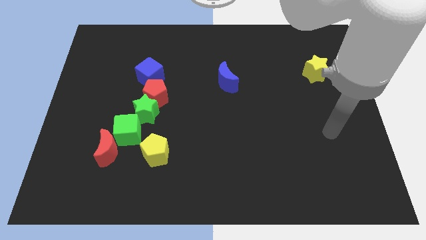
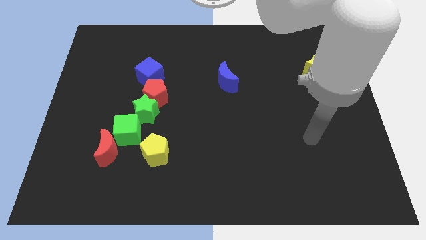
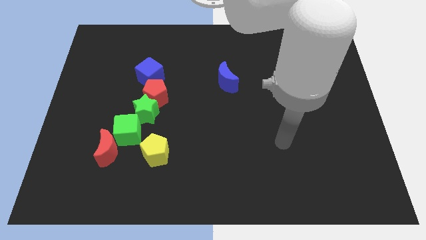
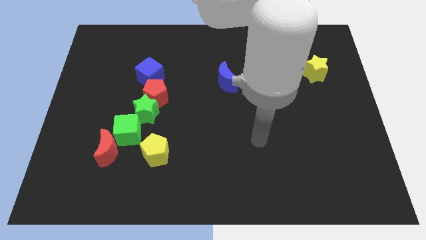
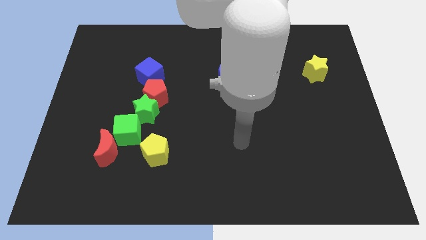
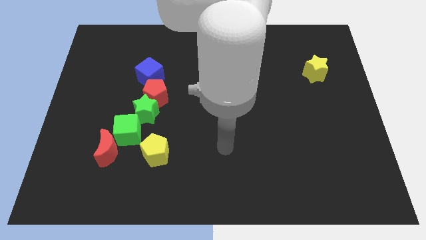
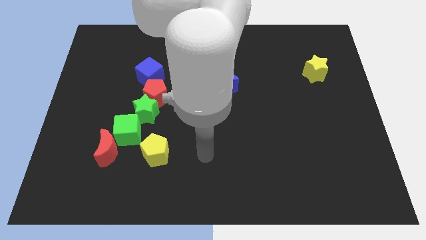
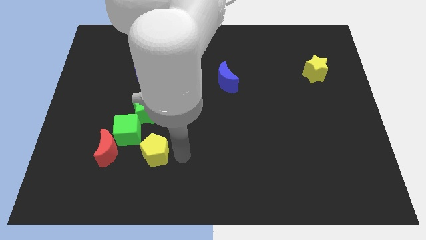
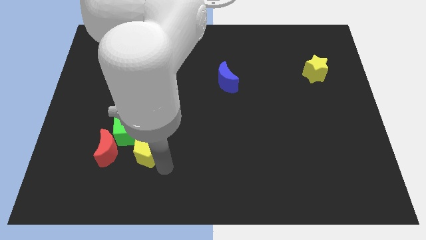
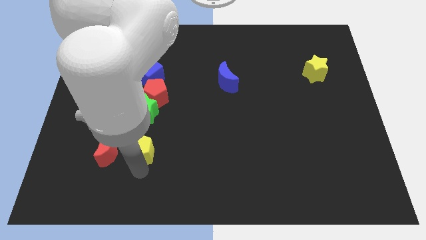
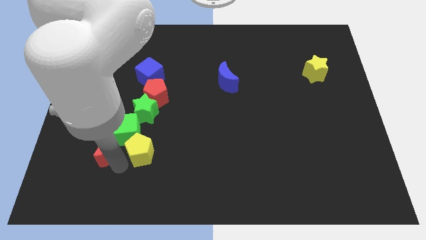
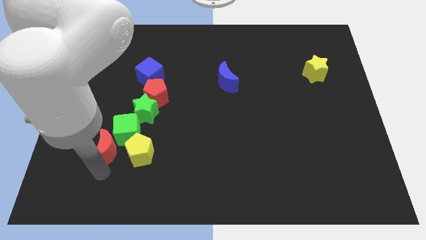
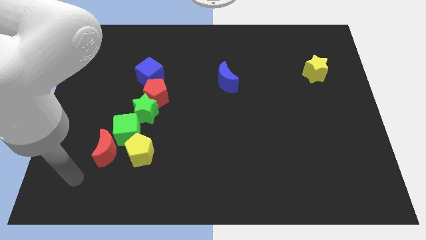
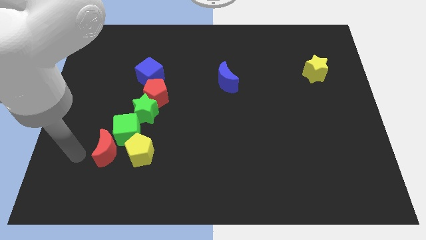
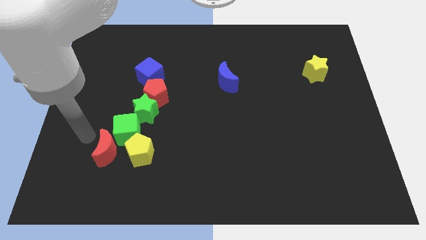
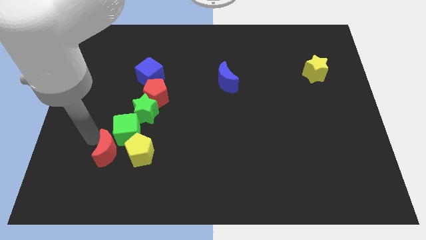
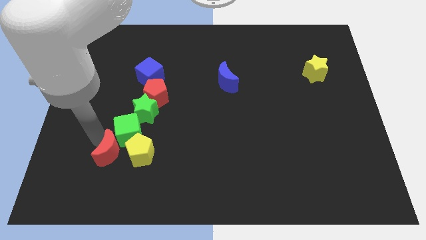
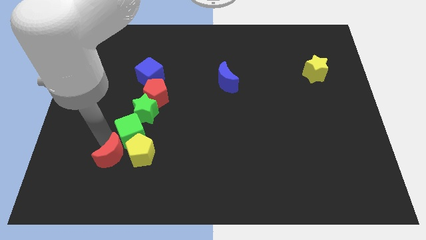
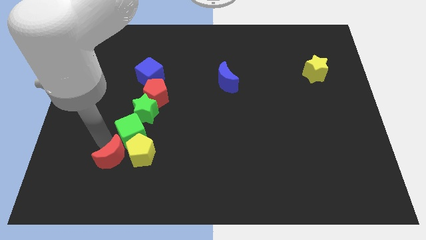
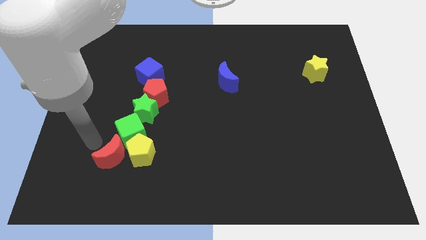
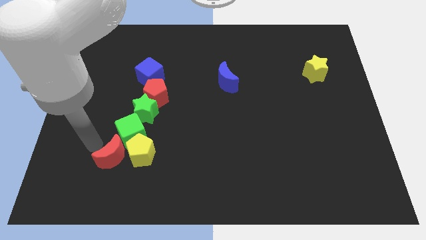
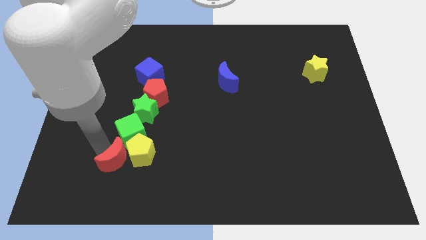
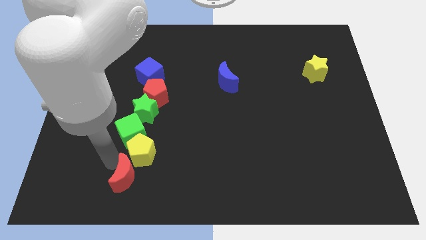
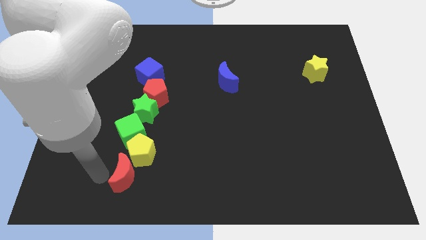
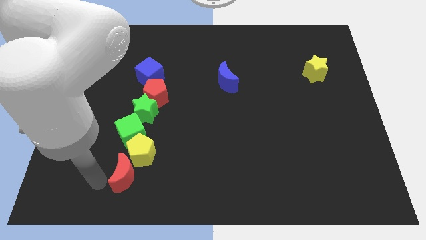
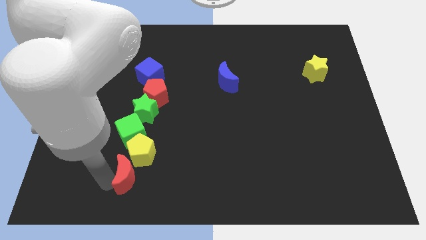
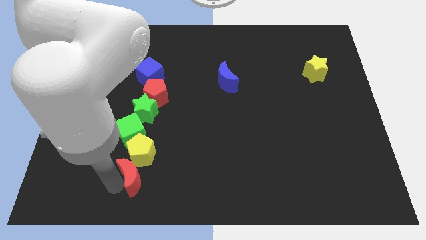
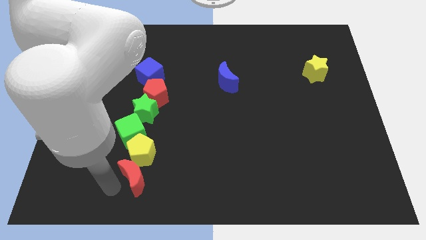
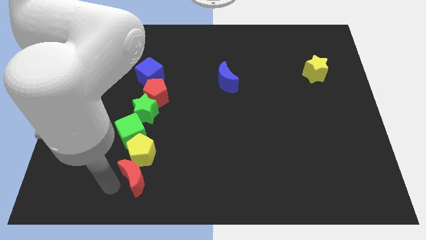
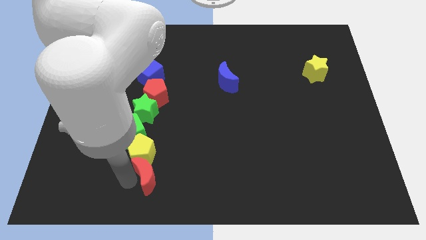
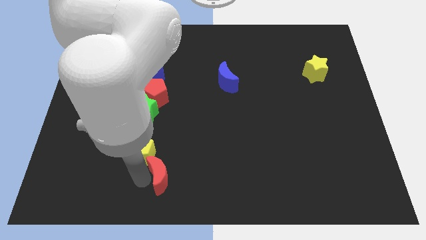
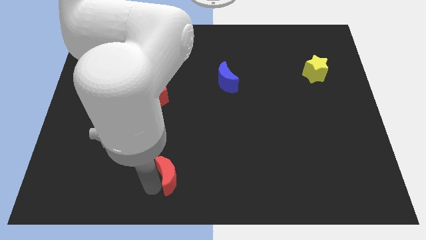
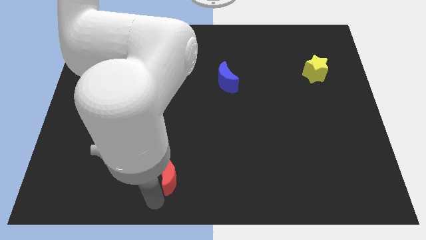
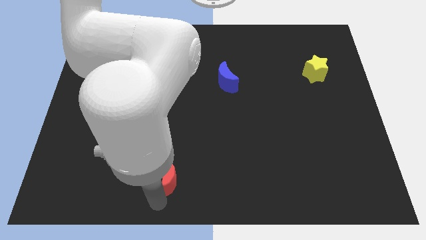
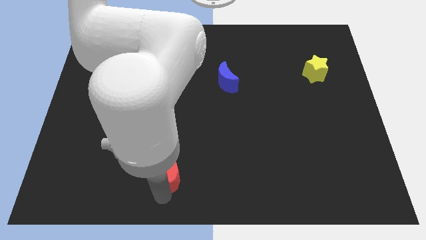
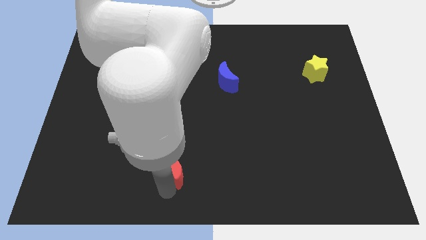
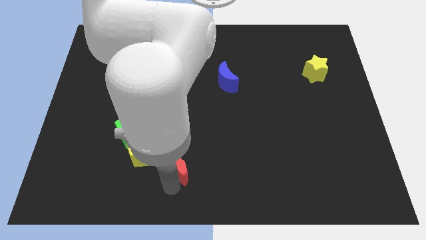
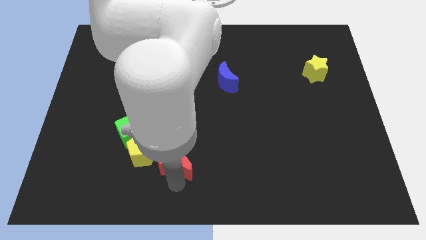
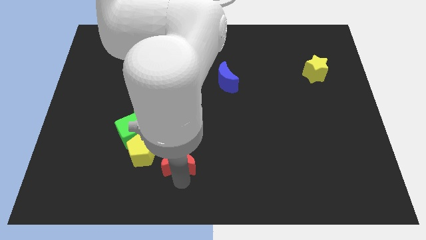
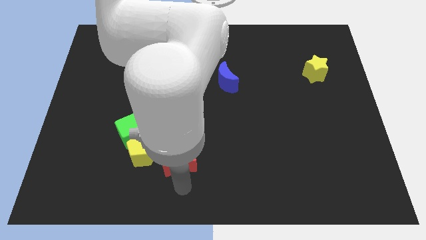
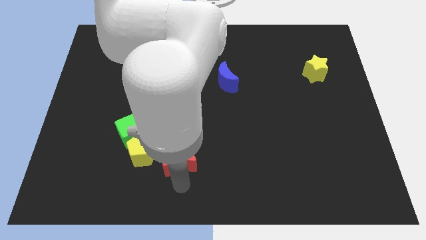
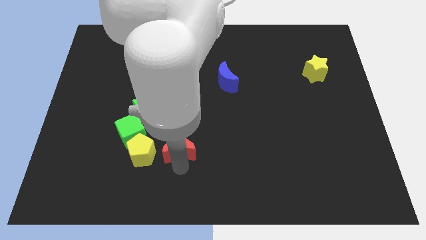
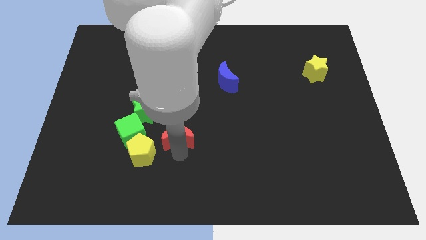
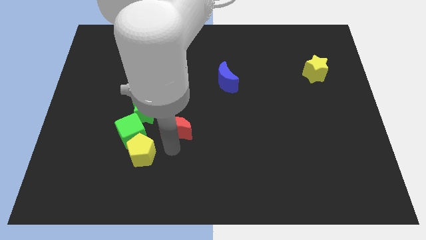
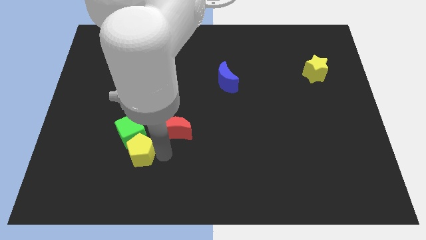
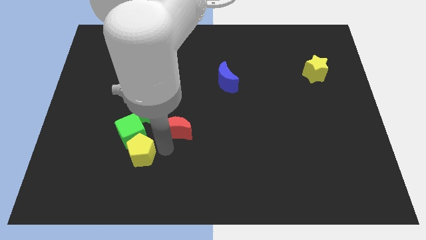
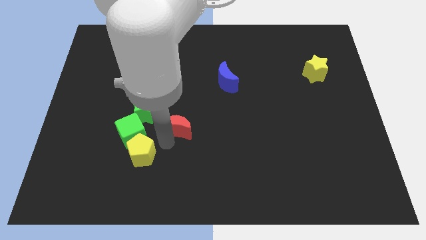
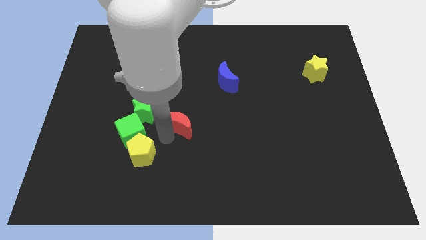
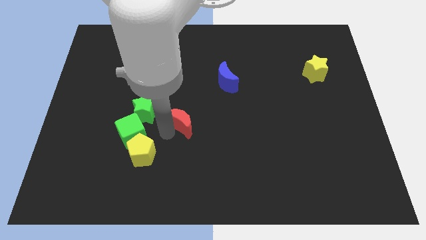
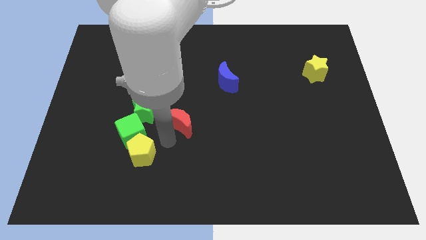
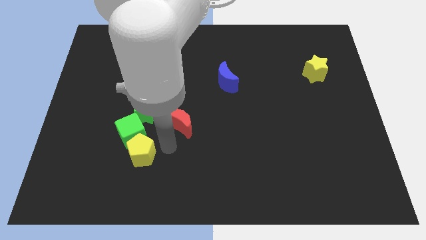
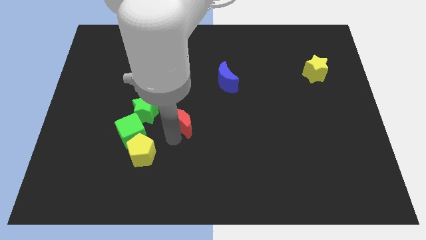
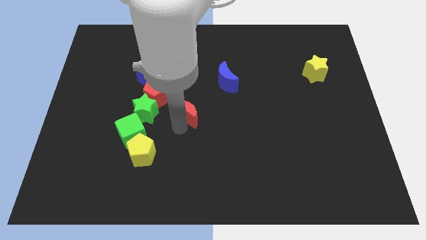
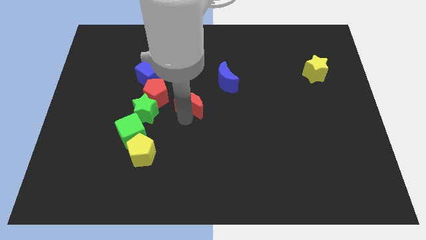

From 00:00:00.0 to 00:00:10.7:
move the red moon diagonally up and to the right

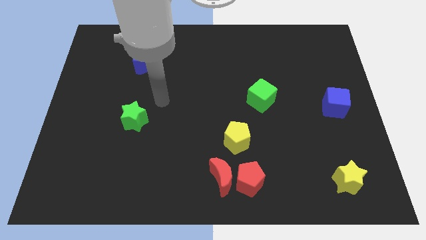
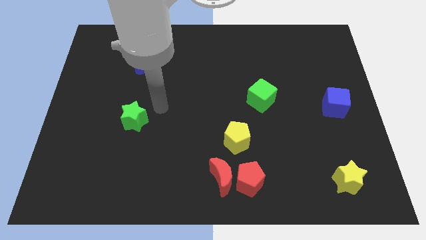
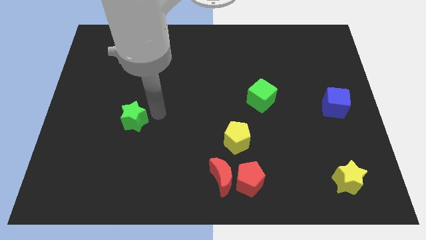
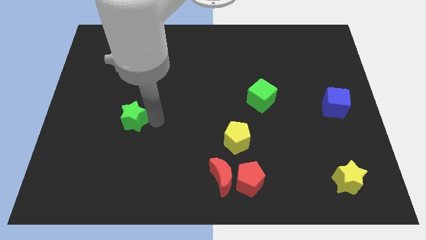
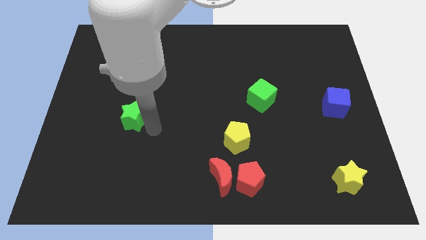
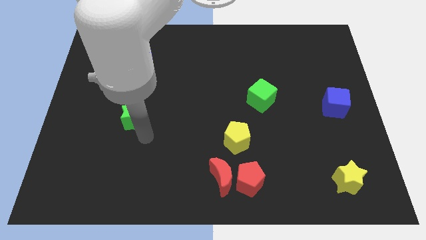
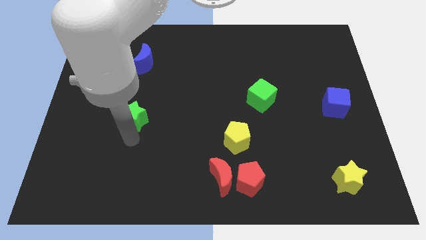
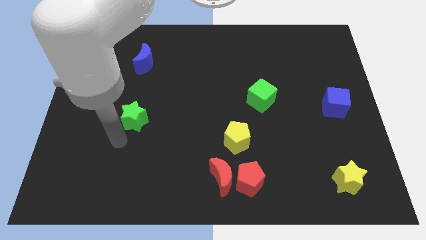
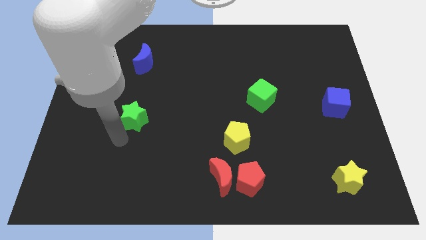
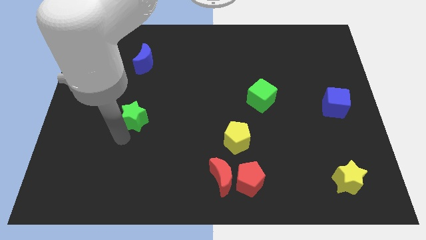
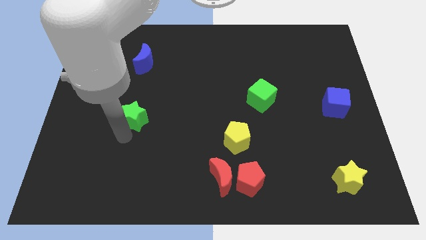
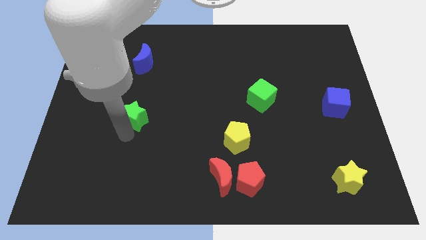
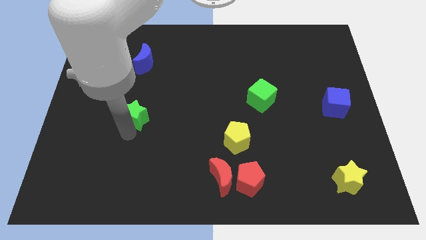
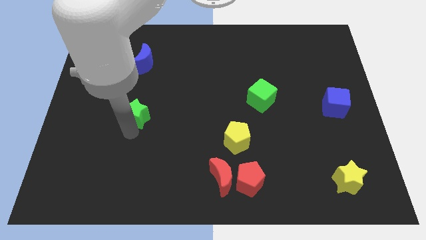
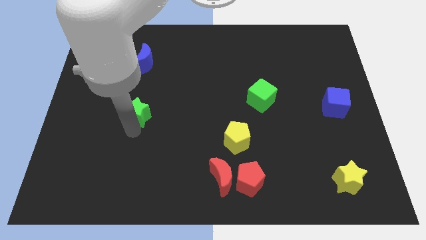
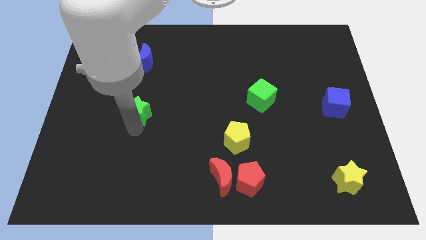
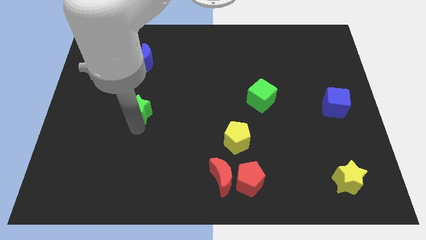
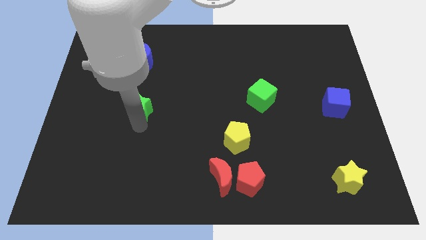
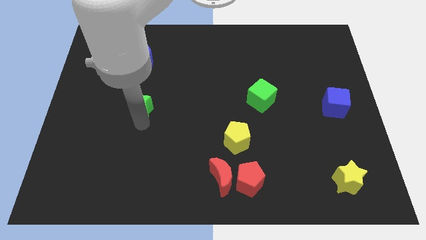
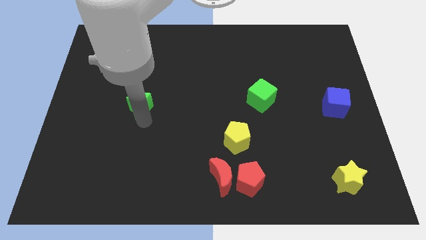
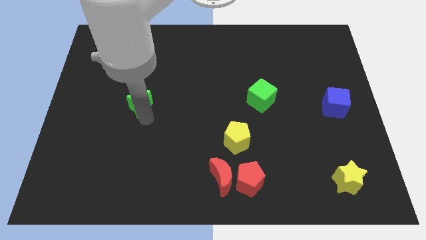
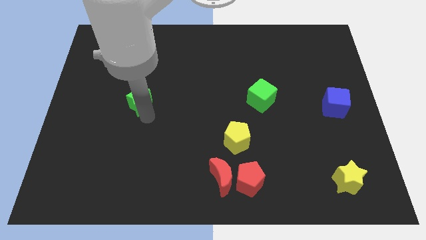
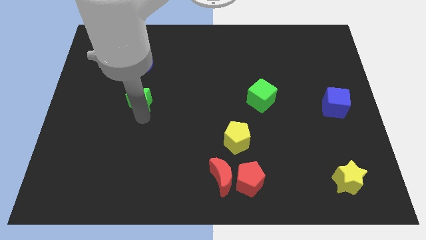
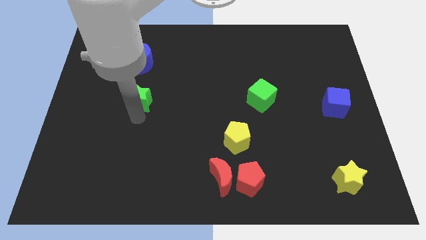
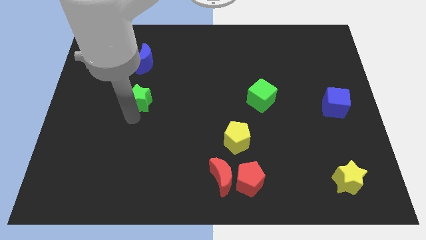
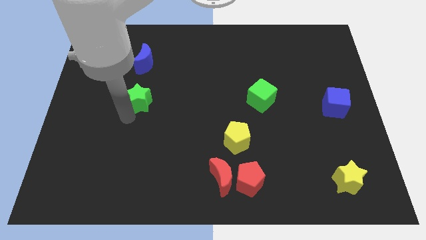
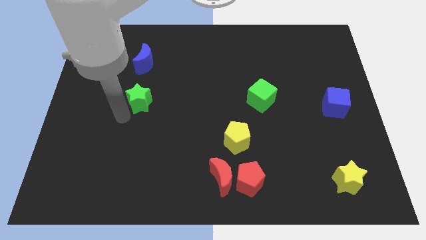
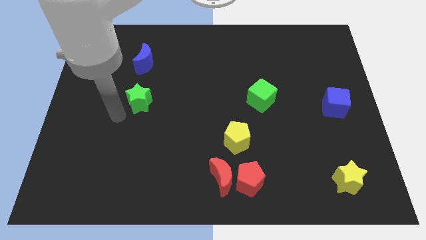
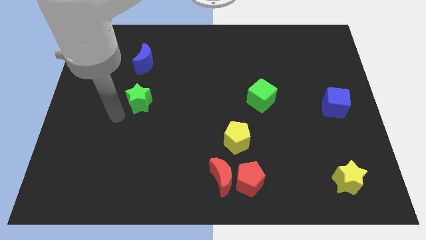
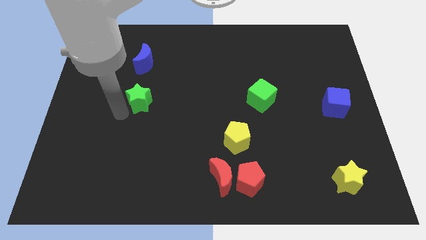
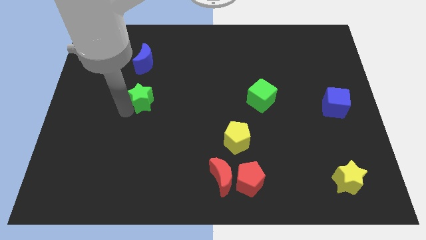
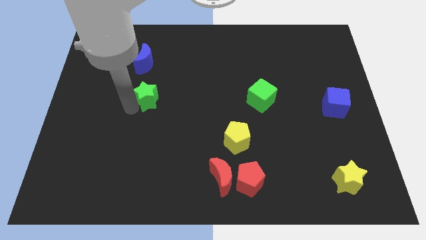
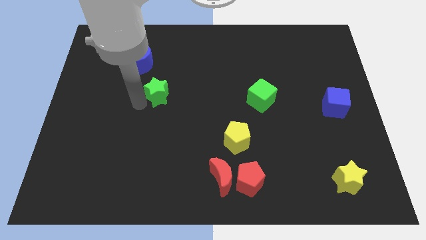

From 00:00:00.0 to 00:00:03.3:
slightly push the green star diagonally up and to the right
